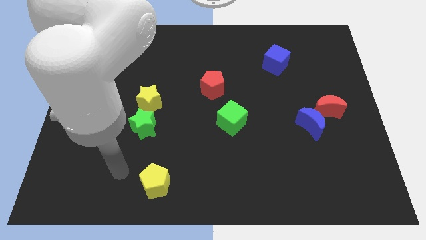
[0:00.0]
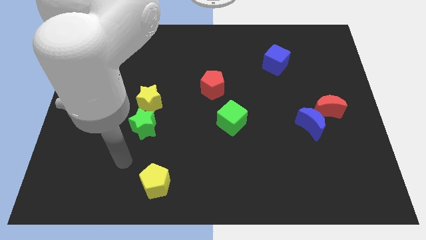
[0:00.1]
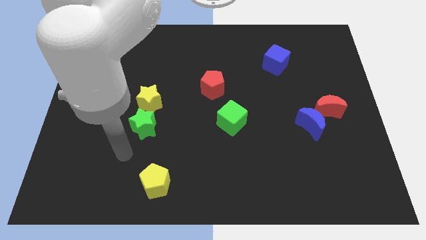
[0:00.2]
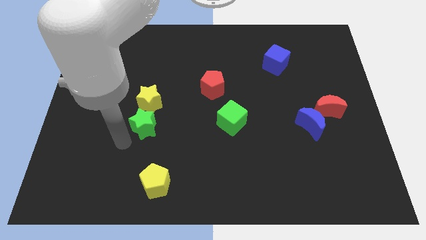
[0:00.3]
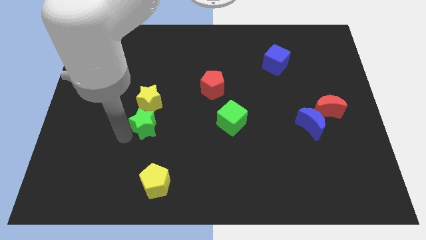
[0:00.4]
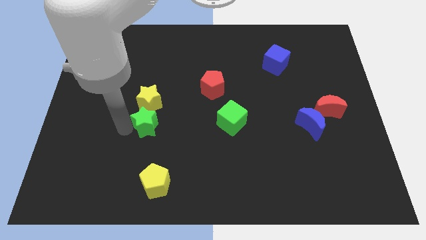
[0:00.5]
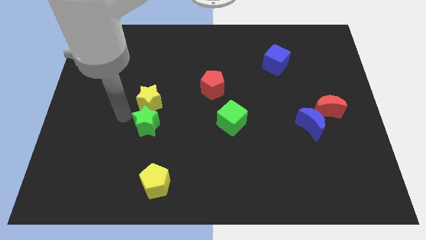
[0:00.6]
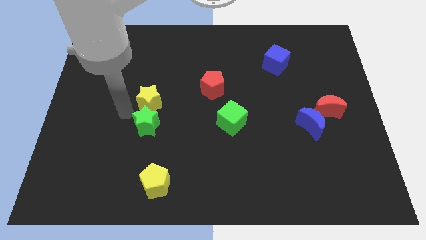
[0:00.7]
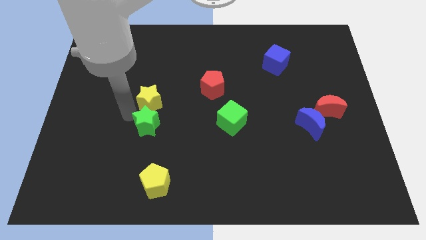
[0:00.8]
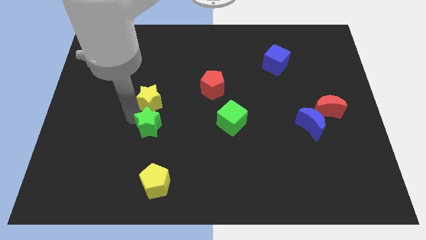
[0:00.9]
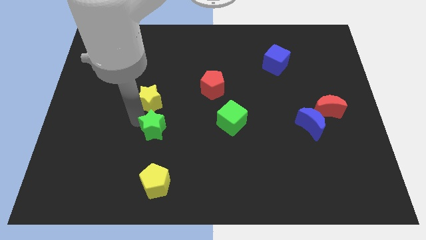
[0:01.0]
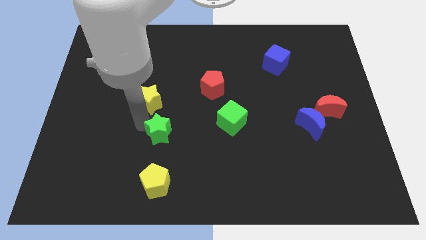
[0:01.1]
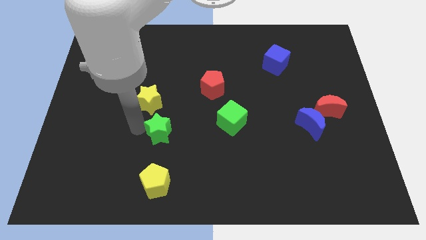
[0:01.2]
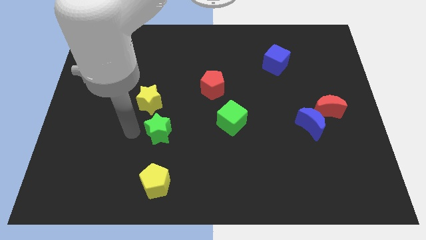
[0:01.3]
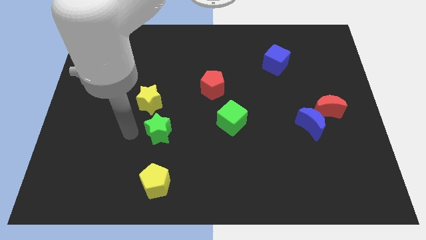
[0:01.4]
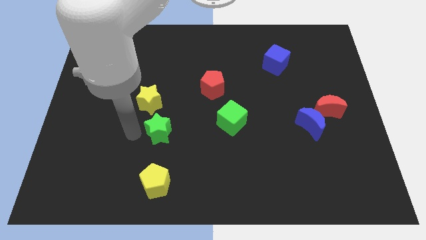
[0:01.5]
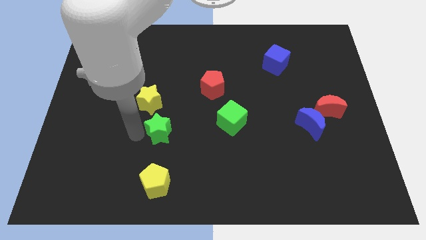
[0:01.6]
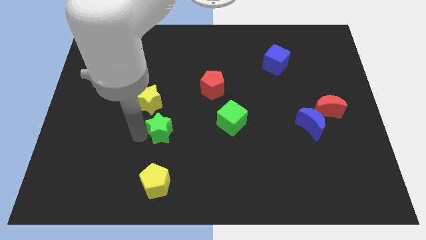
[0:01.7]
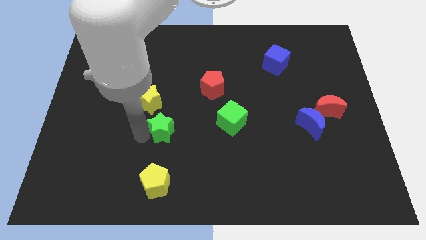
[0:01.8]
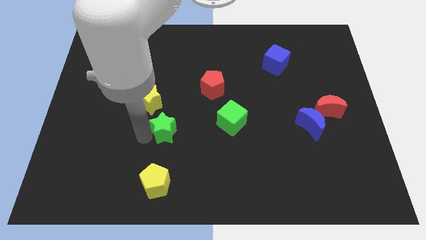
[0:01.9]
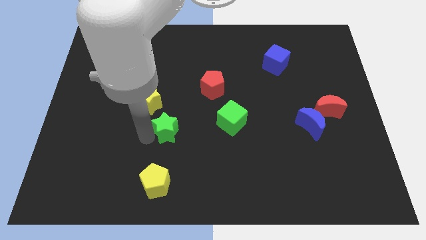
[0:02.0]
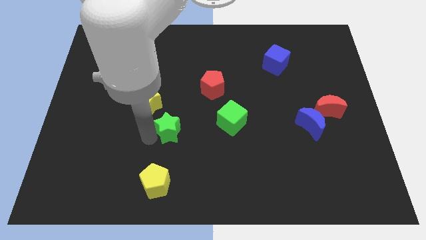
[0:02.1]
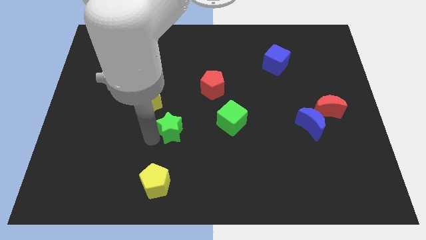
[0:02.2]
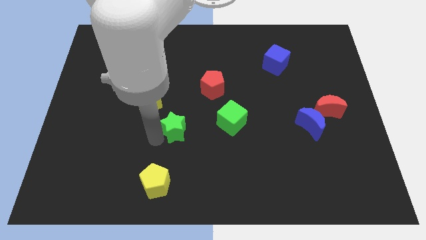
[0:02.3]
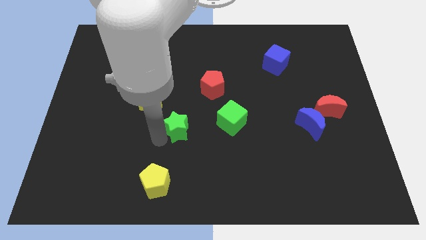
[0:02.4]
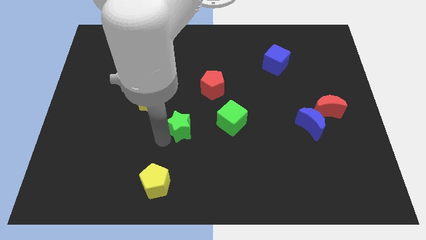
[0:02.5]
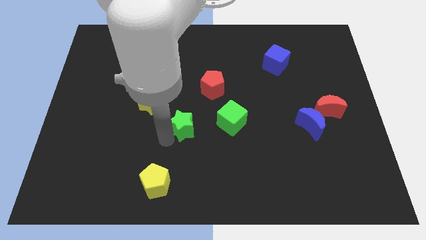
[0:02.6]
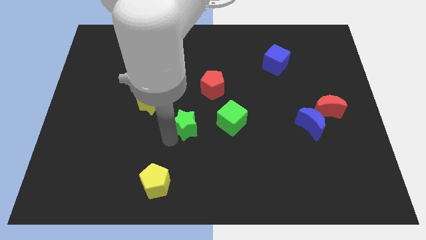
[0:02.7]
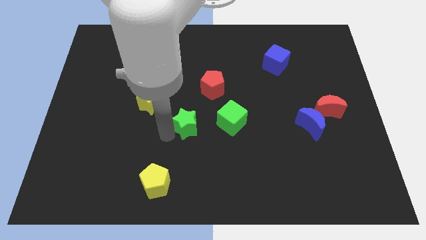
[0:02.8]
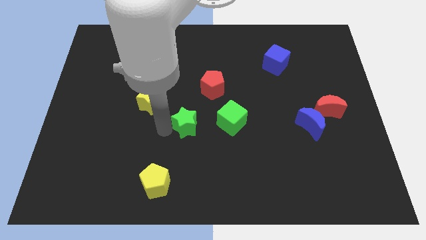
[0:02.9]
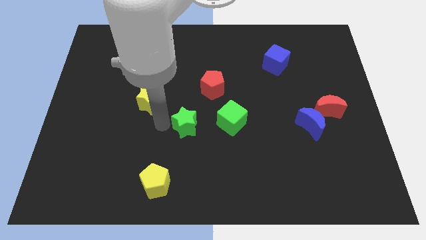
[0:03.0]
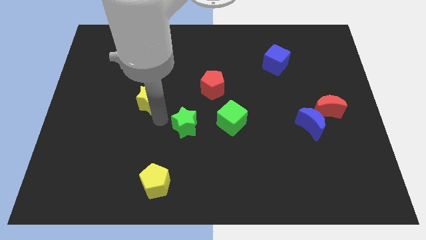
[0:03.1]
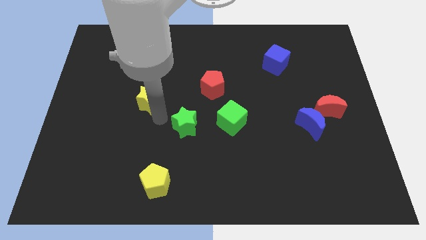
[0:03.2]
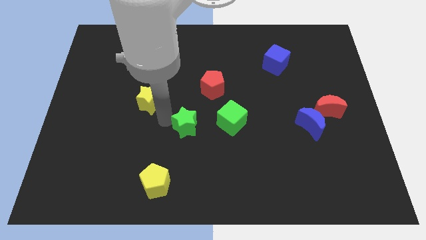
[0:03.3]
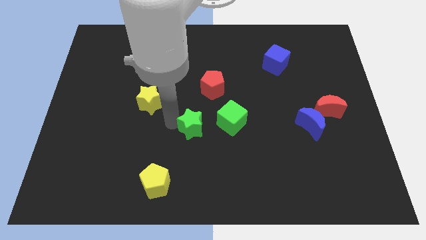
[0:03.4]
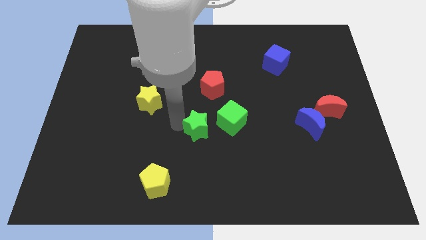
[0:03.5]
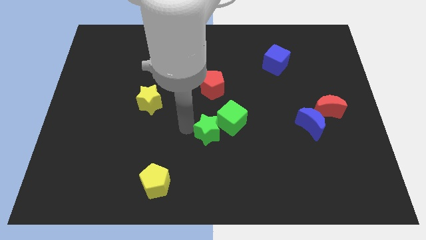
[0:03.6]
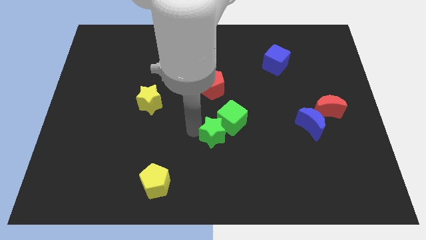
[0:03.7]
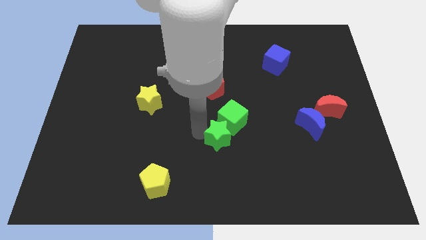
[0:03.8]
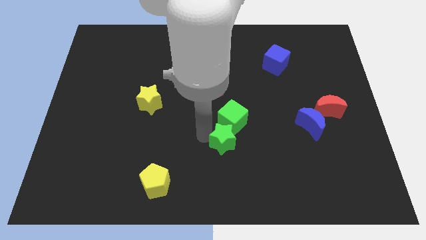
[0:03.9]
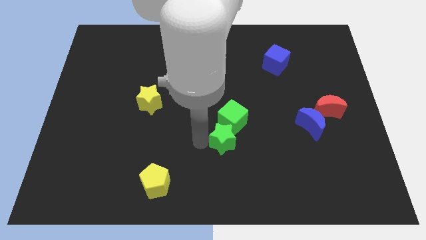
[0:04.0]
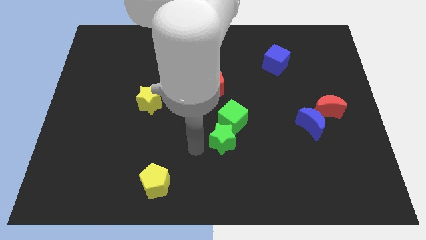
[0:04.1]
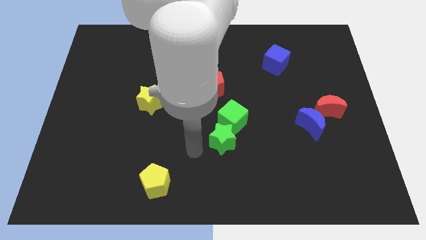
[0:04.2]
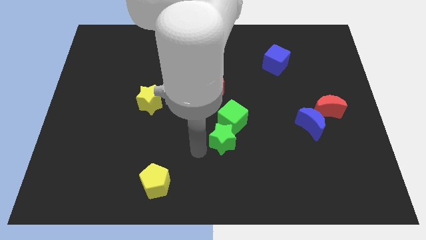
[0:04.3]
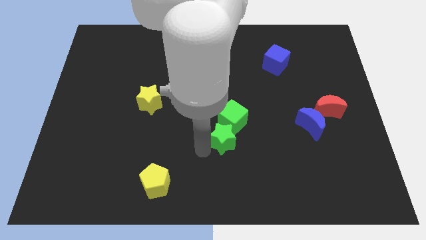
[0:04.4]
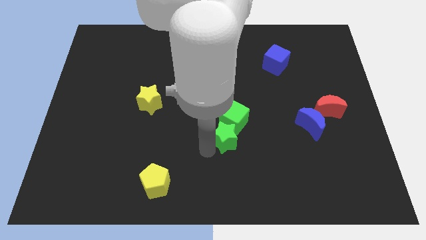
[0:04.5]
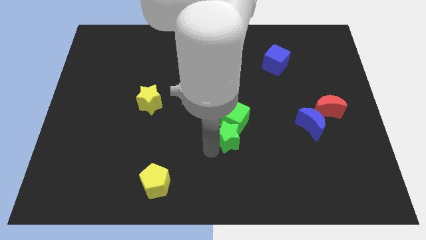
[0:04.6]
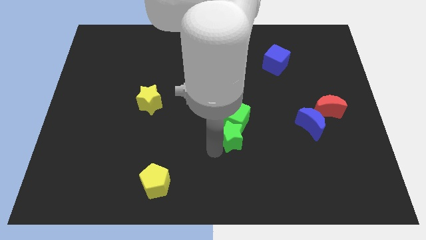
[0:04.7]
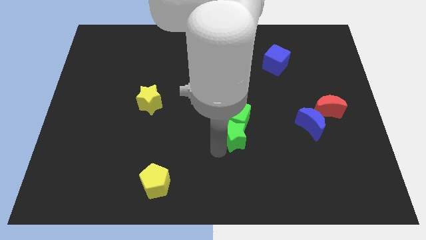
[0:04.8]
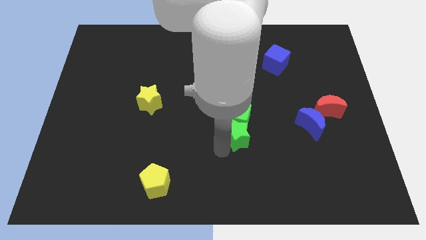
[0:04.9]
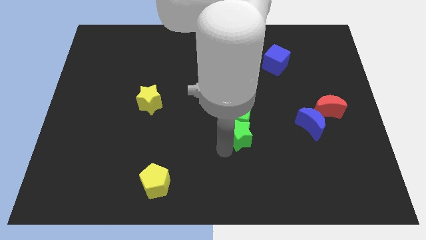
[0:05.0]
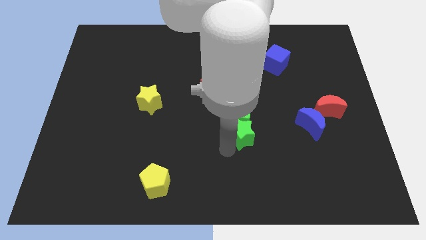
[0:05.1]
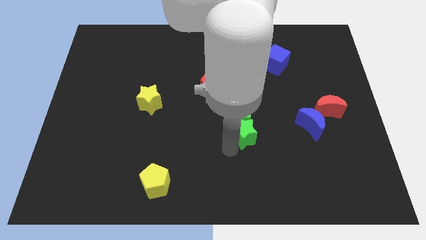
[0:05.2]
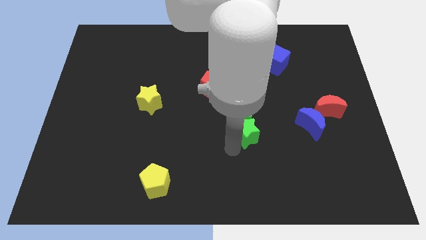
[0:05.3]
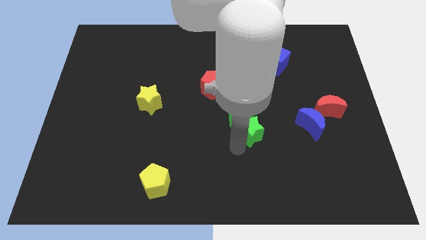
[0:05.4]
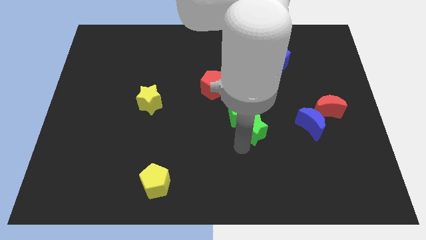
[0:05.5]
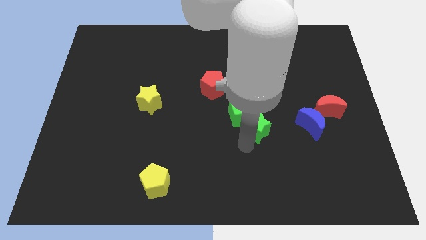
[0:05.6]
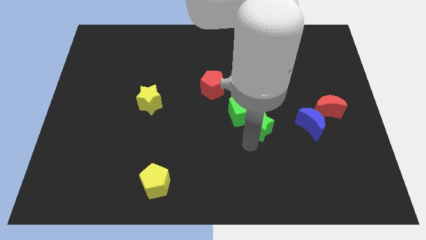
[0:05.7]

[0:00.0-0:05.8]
put the green star right of the green cube

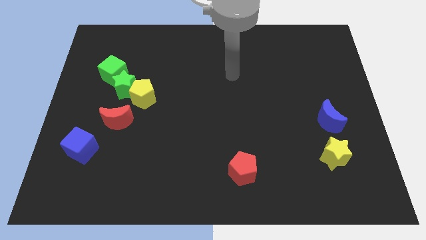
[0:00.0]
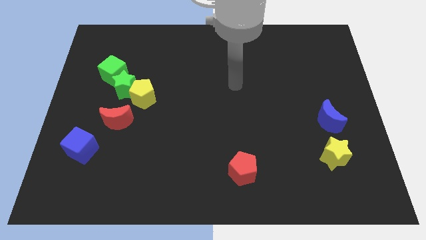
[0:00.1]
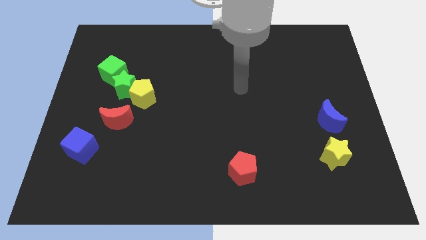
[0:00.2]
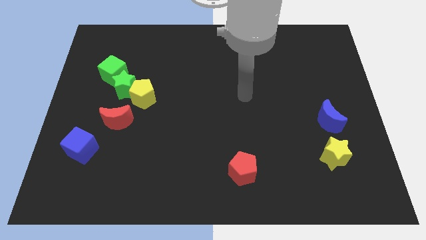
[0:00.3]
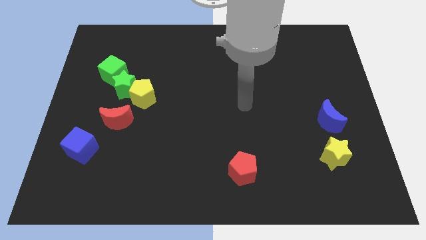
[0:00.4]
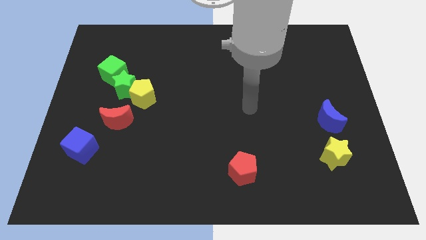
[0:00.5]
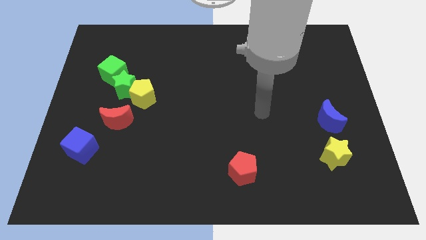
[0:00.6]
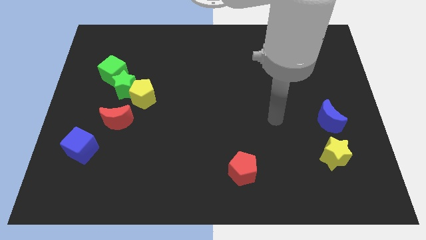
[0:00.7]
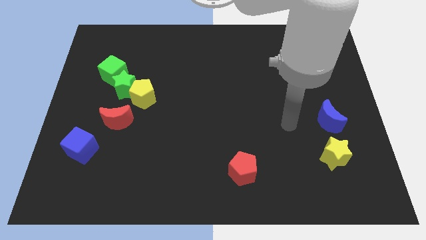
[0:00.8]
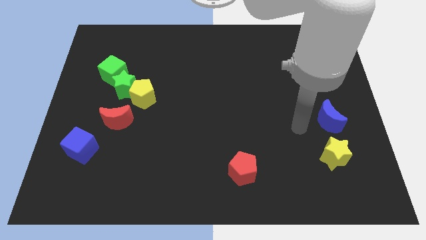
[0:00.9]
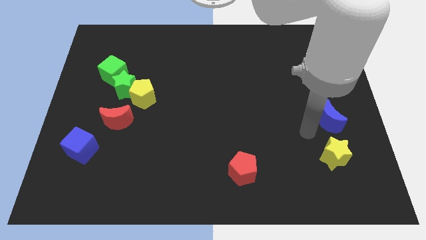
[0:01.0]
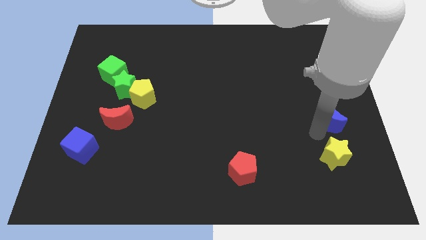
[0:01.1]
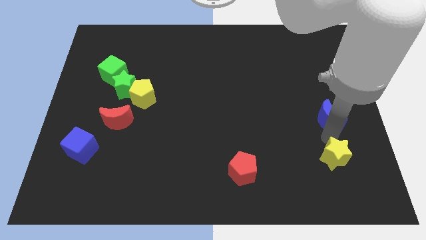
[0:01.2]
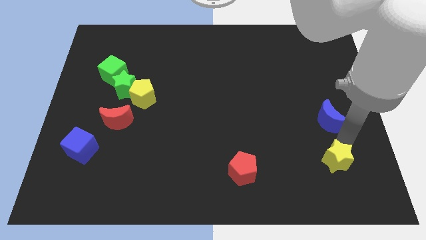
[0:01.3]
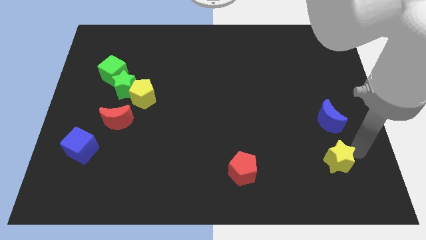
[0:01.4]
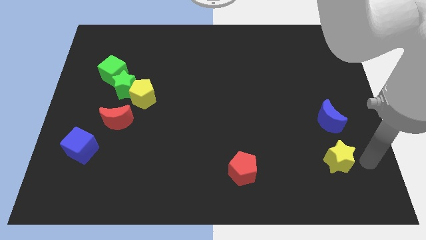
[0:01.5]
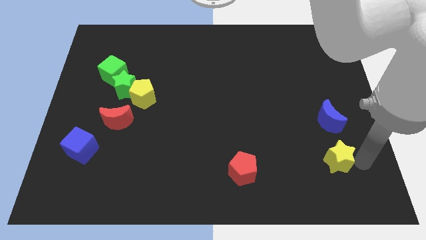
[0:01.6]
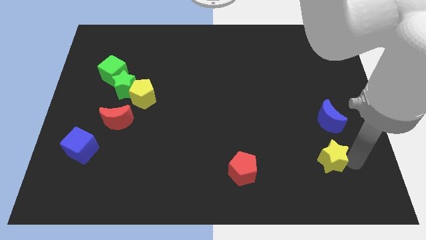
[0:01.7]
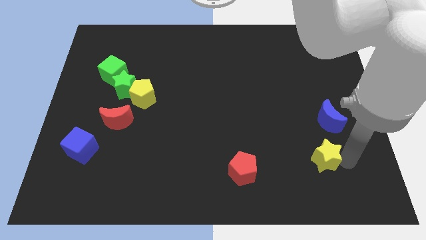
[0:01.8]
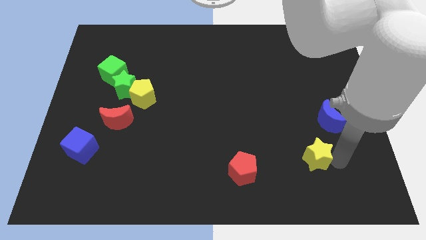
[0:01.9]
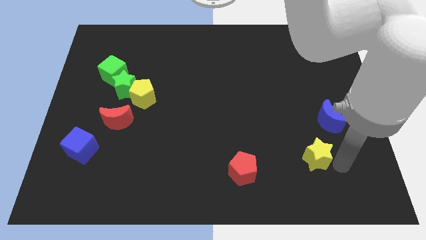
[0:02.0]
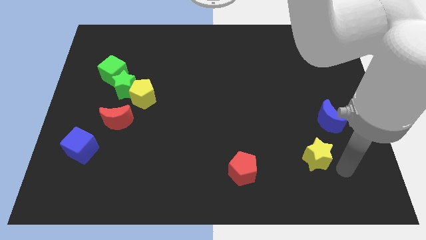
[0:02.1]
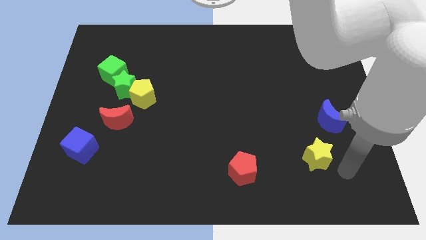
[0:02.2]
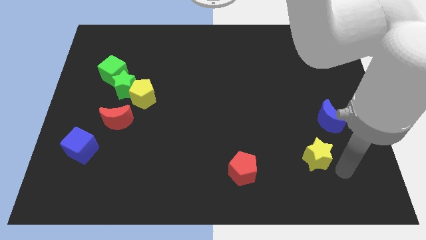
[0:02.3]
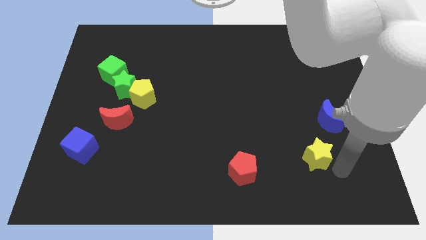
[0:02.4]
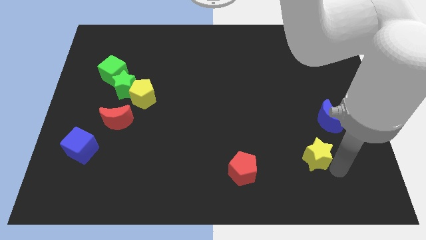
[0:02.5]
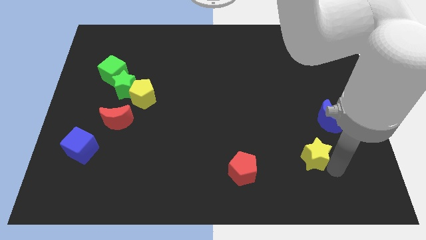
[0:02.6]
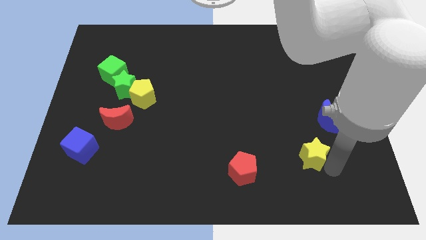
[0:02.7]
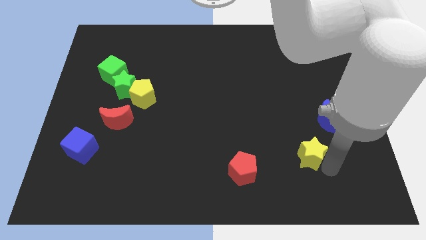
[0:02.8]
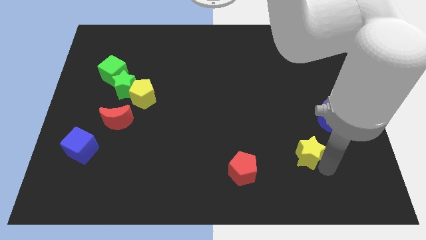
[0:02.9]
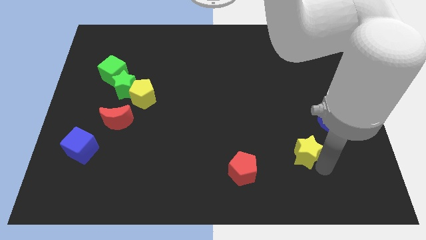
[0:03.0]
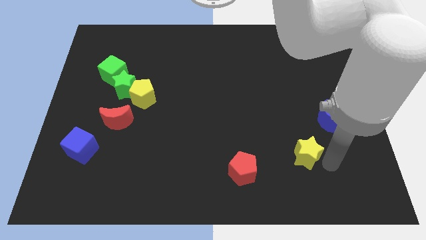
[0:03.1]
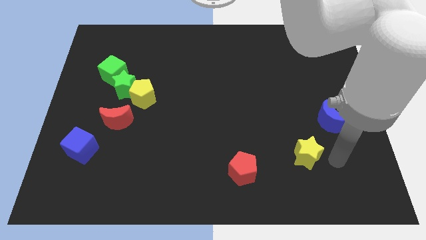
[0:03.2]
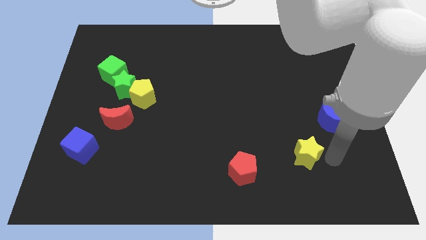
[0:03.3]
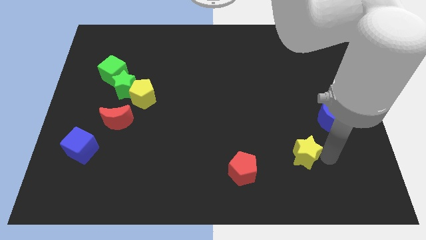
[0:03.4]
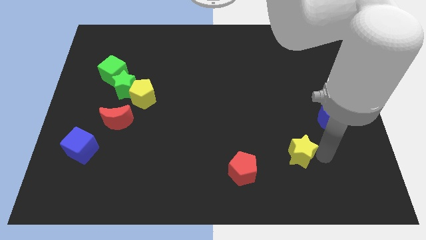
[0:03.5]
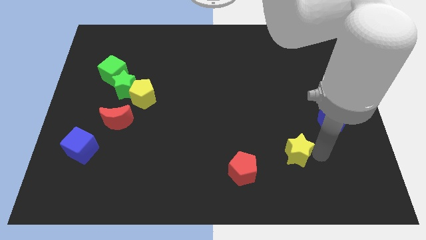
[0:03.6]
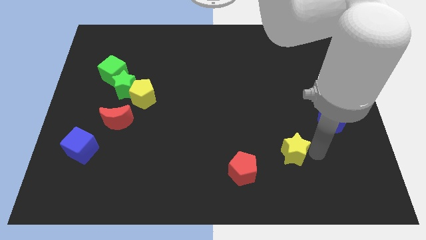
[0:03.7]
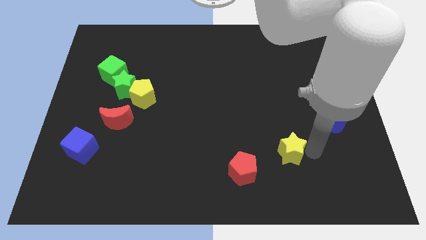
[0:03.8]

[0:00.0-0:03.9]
put the yellow star to the top right of the red pentagon
